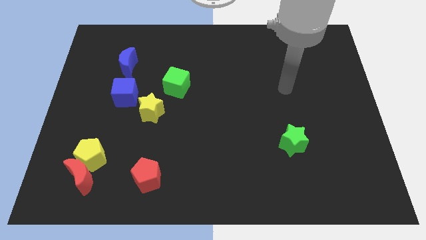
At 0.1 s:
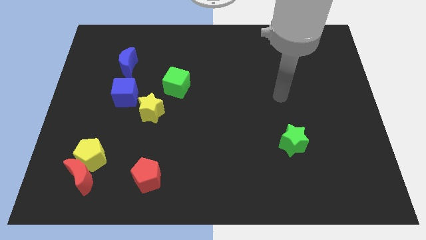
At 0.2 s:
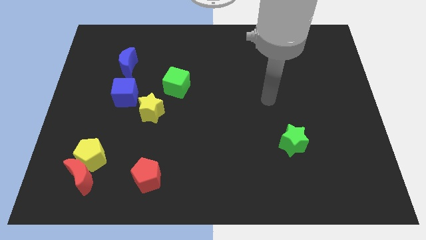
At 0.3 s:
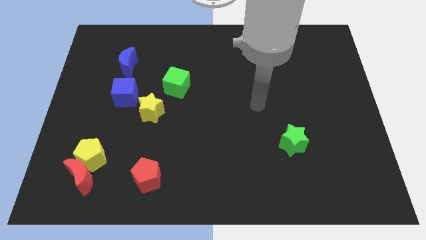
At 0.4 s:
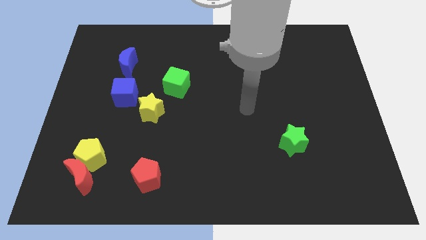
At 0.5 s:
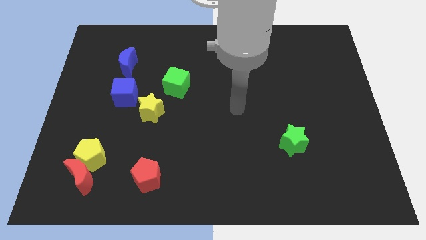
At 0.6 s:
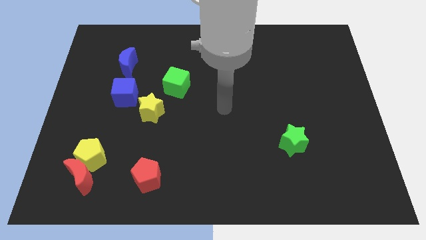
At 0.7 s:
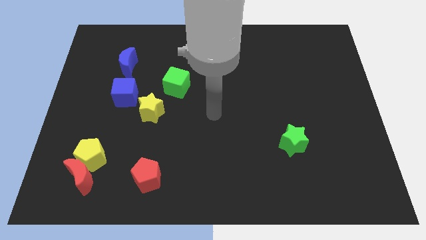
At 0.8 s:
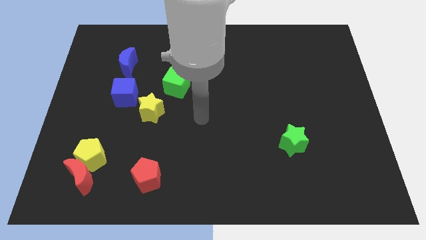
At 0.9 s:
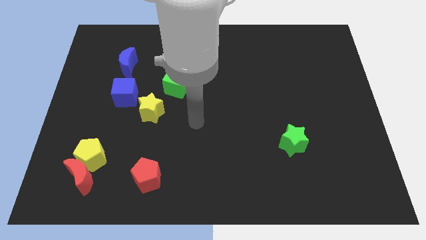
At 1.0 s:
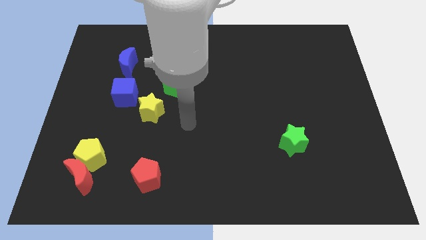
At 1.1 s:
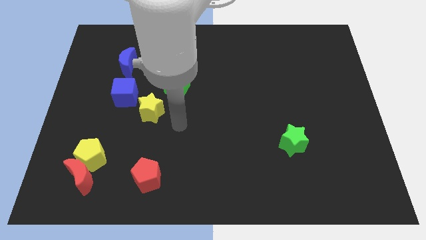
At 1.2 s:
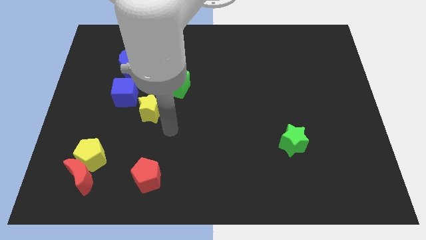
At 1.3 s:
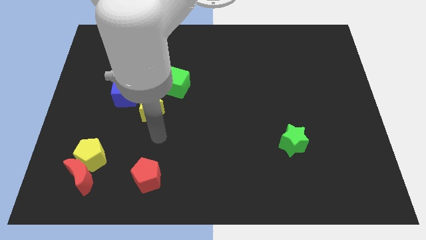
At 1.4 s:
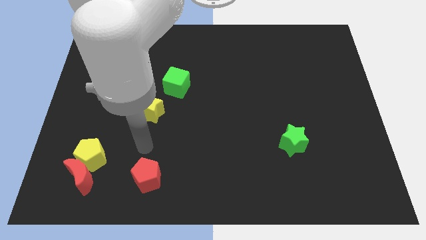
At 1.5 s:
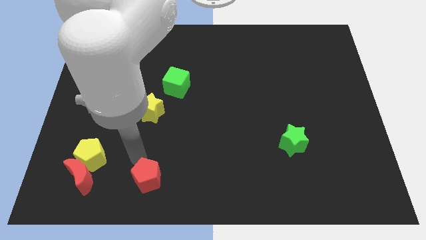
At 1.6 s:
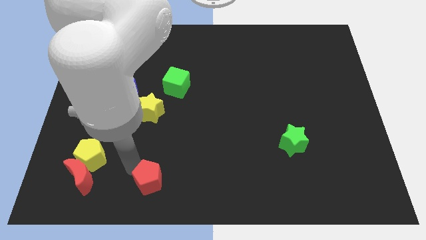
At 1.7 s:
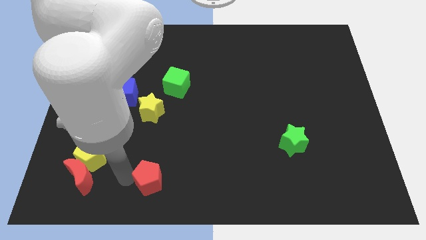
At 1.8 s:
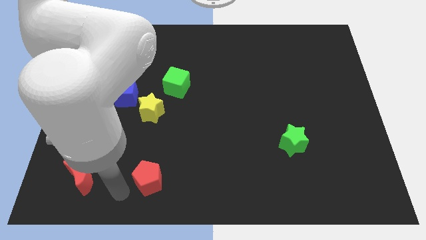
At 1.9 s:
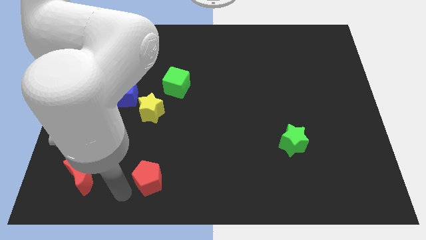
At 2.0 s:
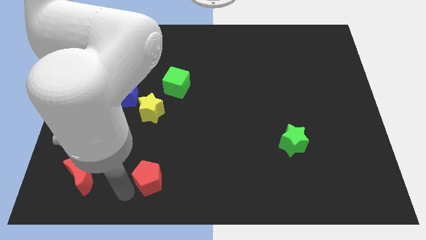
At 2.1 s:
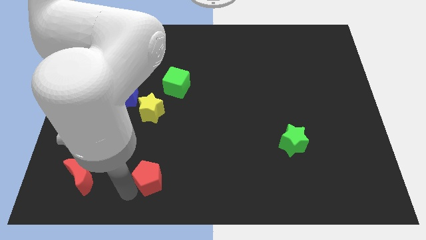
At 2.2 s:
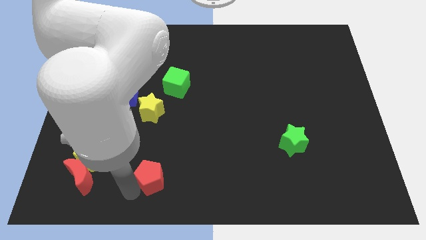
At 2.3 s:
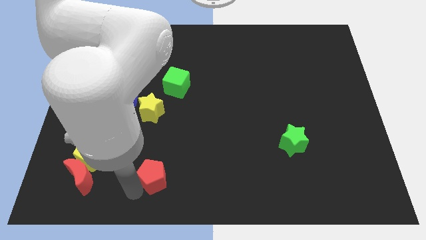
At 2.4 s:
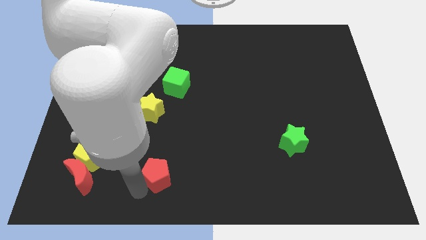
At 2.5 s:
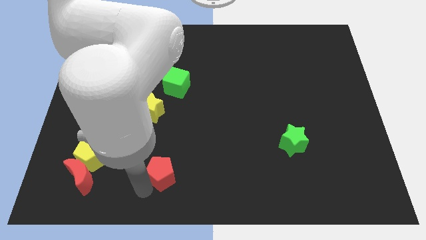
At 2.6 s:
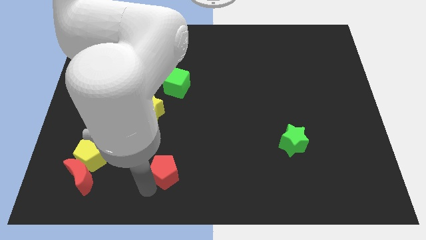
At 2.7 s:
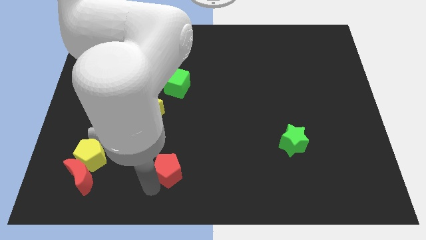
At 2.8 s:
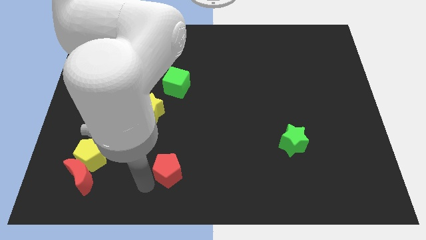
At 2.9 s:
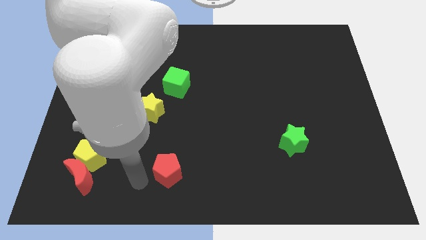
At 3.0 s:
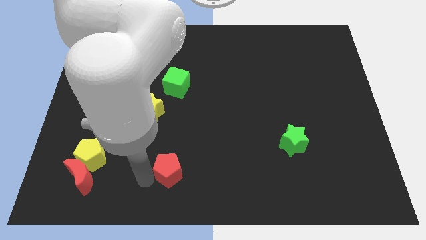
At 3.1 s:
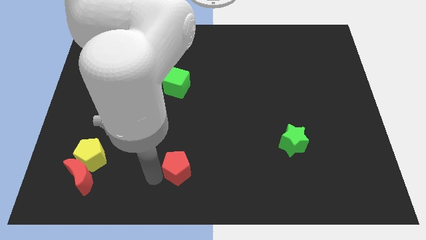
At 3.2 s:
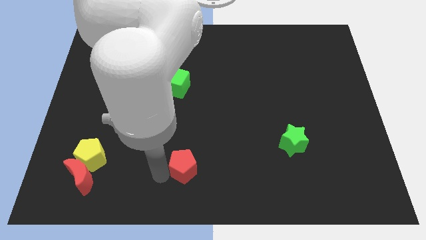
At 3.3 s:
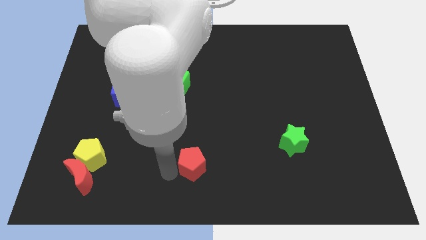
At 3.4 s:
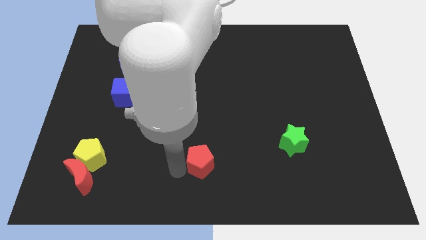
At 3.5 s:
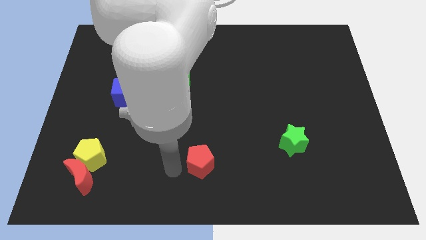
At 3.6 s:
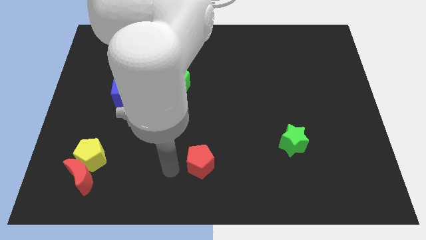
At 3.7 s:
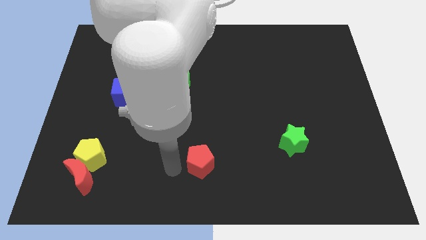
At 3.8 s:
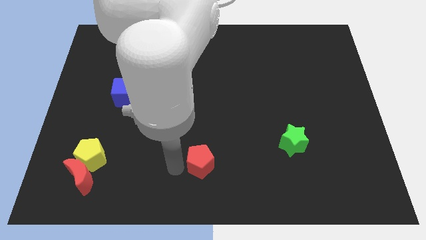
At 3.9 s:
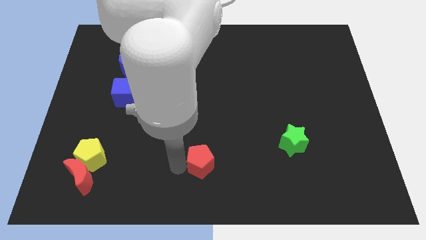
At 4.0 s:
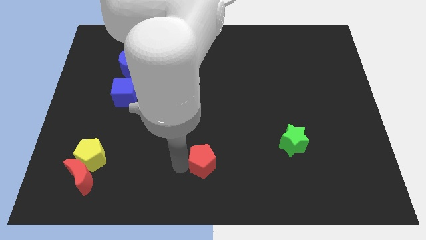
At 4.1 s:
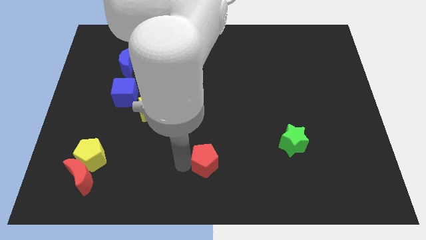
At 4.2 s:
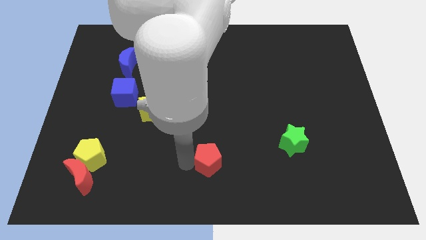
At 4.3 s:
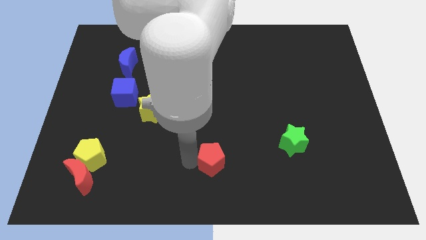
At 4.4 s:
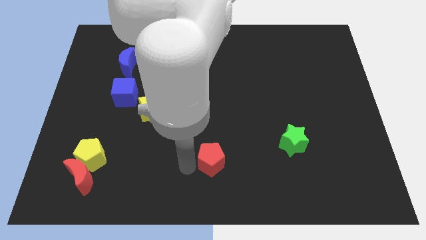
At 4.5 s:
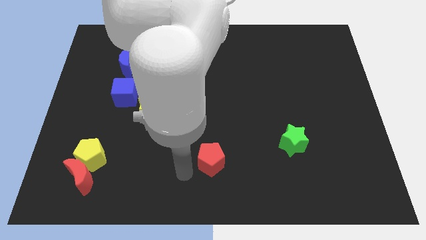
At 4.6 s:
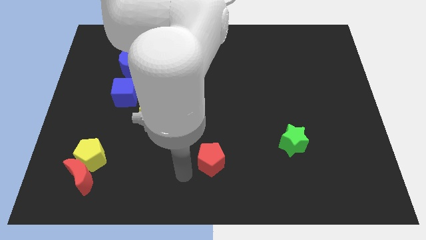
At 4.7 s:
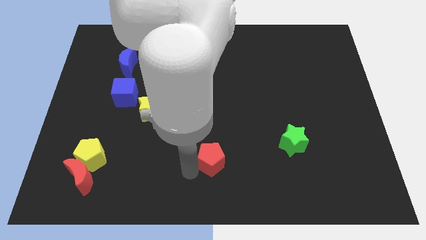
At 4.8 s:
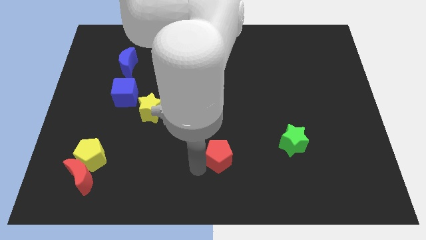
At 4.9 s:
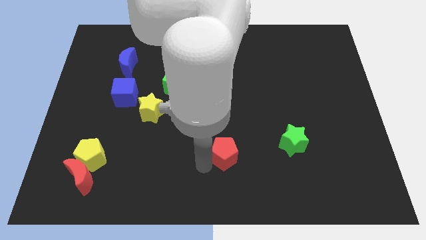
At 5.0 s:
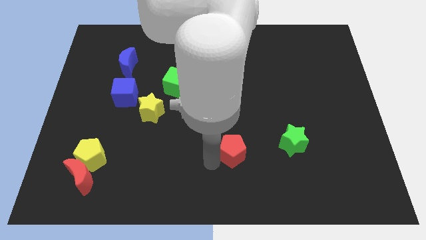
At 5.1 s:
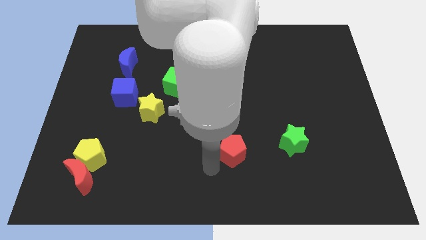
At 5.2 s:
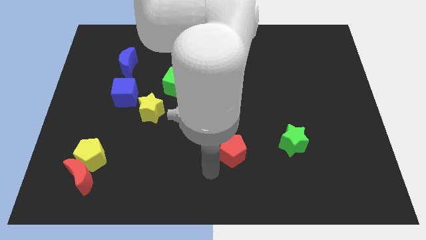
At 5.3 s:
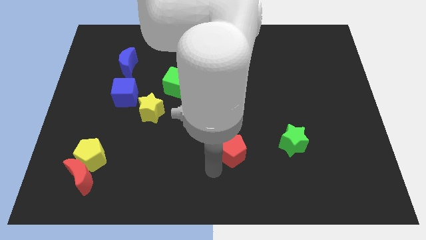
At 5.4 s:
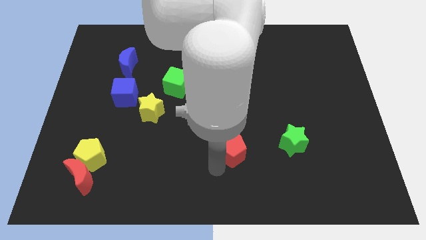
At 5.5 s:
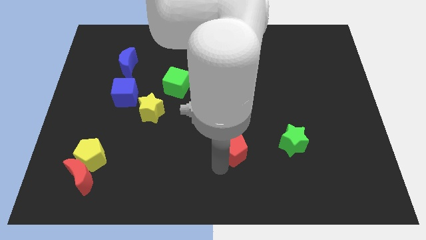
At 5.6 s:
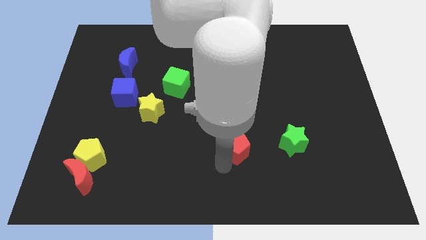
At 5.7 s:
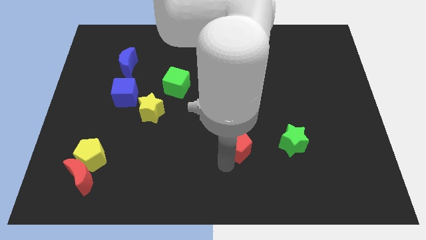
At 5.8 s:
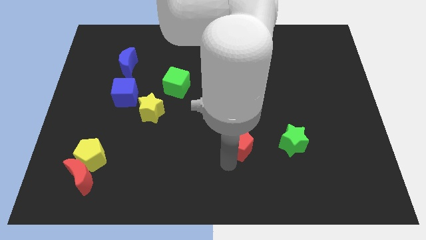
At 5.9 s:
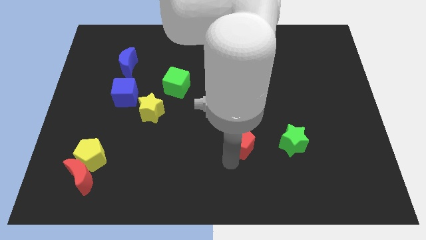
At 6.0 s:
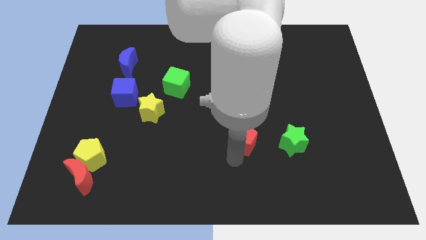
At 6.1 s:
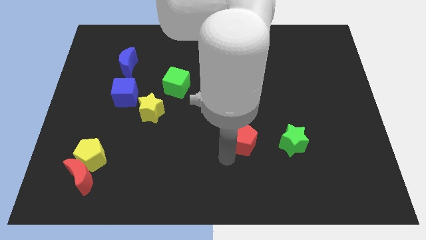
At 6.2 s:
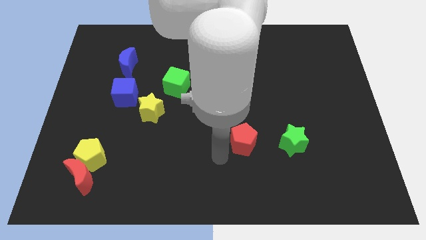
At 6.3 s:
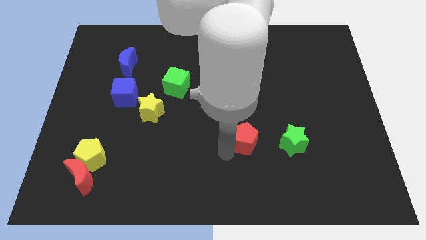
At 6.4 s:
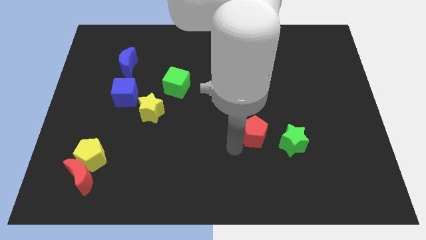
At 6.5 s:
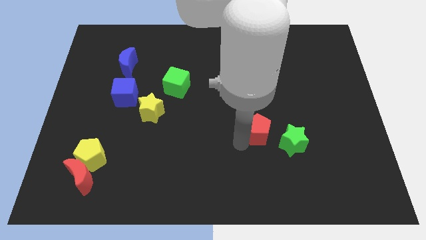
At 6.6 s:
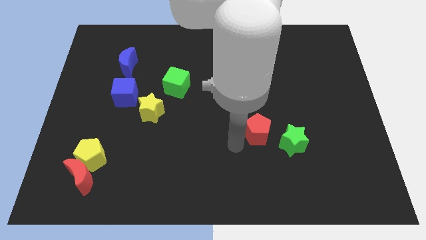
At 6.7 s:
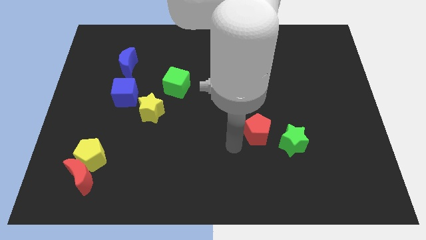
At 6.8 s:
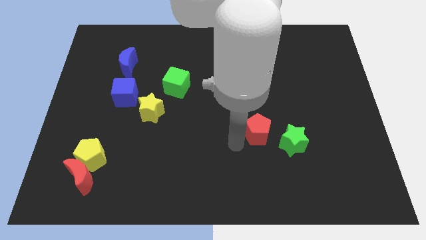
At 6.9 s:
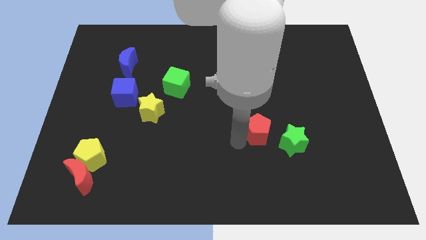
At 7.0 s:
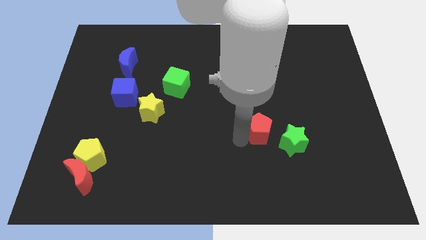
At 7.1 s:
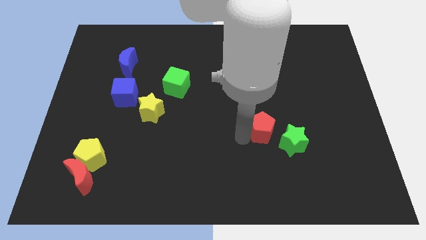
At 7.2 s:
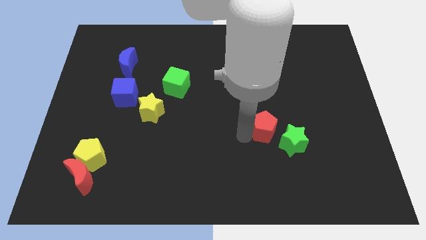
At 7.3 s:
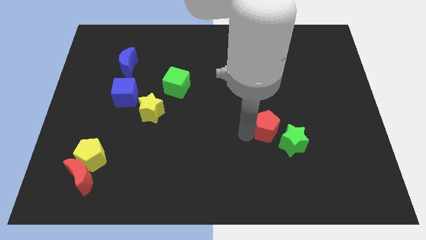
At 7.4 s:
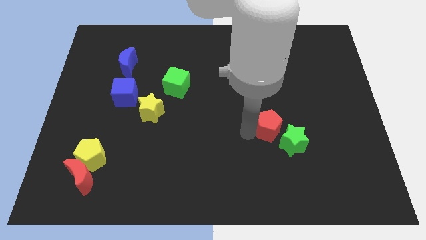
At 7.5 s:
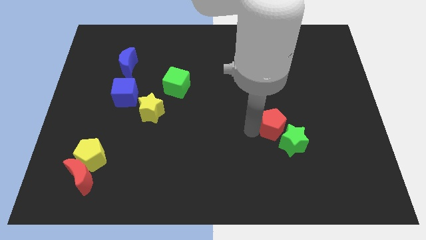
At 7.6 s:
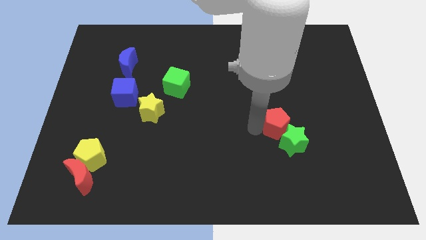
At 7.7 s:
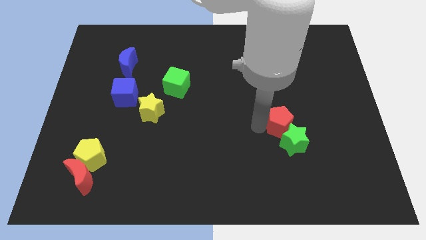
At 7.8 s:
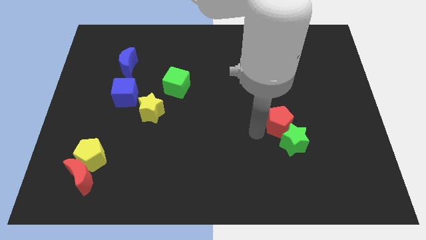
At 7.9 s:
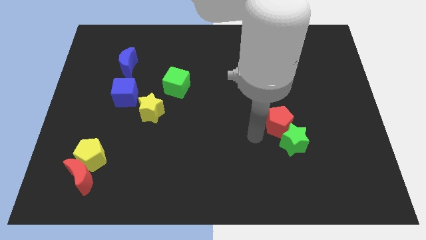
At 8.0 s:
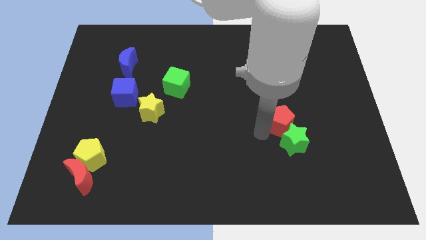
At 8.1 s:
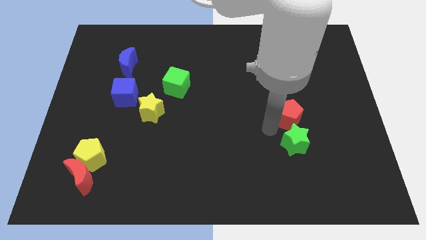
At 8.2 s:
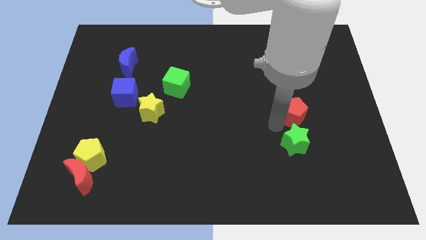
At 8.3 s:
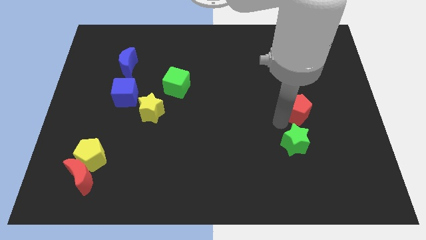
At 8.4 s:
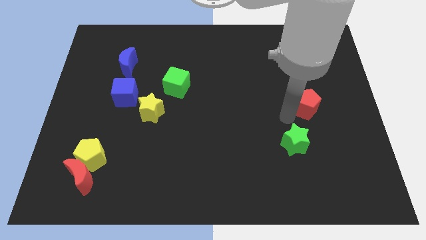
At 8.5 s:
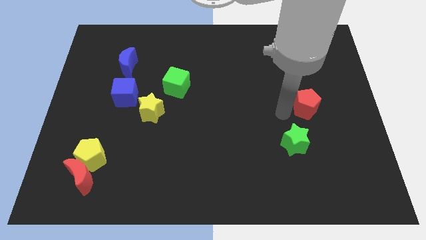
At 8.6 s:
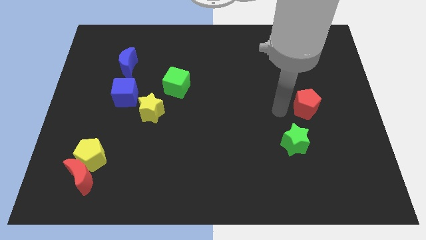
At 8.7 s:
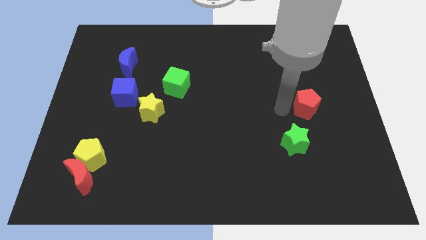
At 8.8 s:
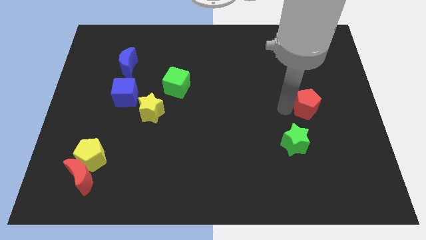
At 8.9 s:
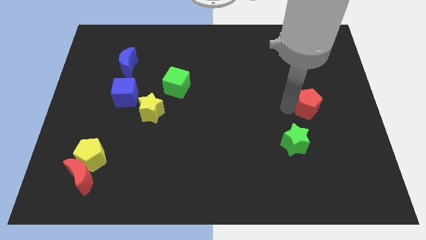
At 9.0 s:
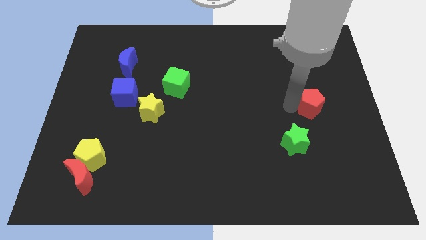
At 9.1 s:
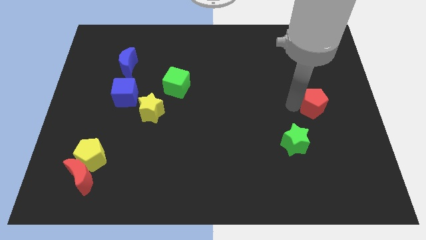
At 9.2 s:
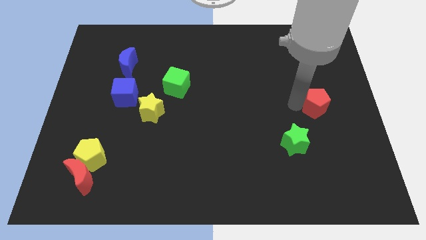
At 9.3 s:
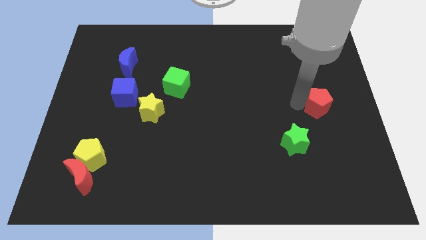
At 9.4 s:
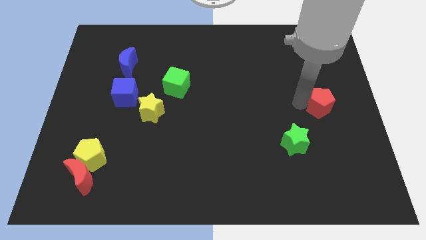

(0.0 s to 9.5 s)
move the red pentagon to the right side
